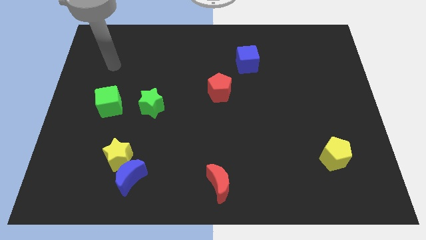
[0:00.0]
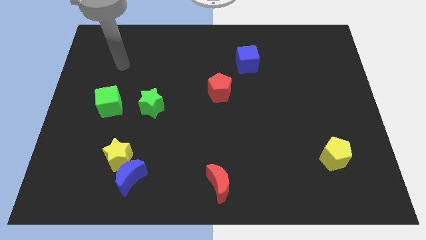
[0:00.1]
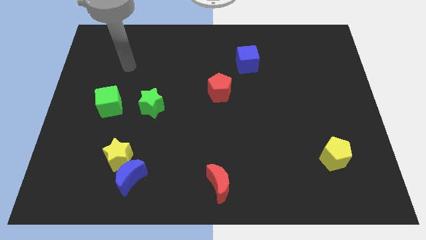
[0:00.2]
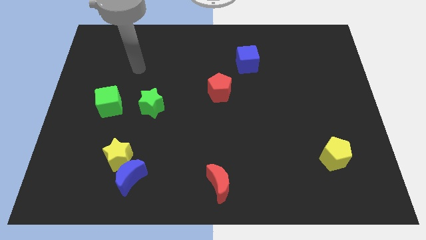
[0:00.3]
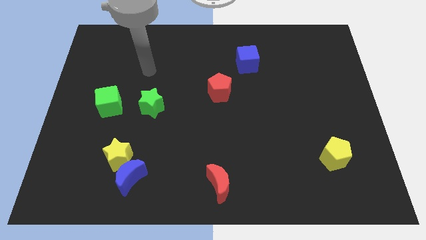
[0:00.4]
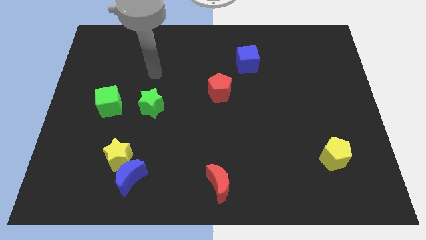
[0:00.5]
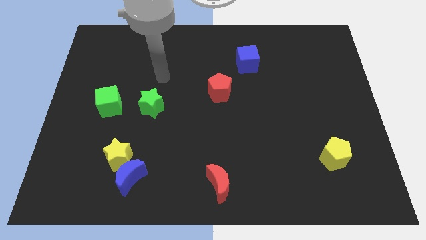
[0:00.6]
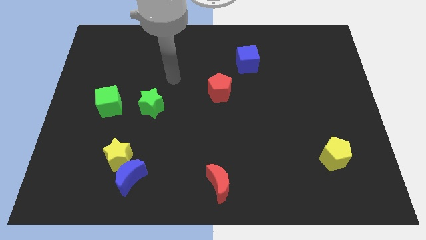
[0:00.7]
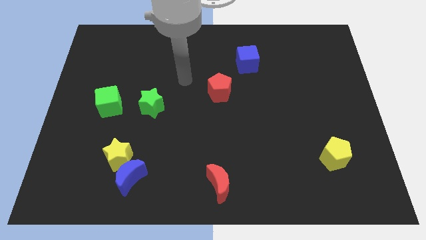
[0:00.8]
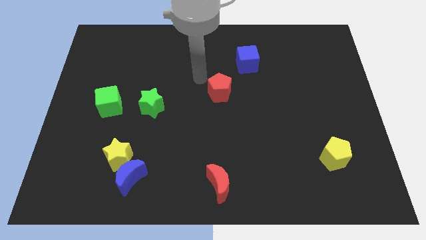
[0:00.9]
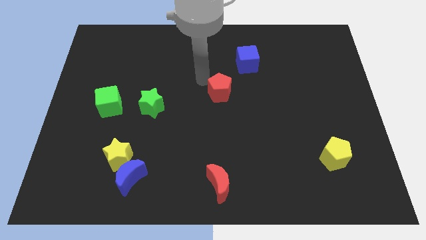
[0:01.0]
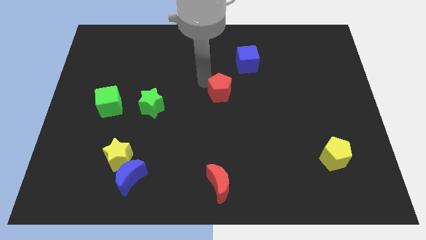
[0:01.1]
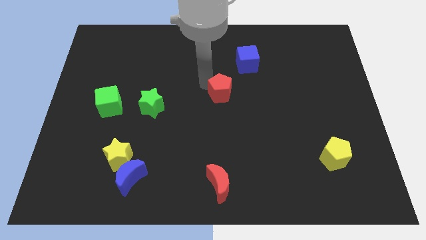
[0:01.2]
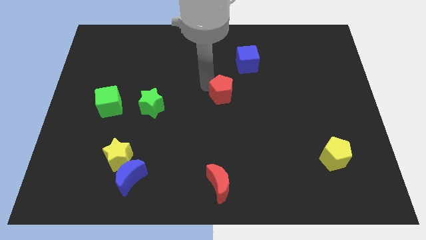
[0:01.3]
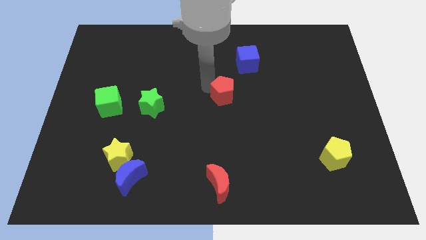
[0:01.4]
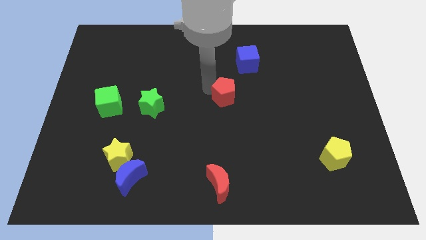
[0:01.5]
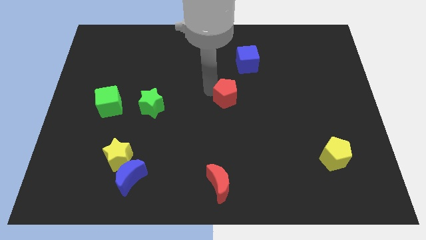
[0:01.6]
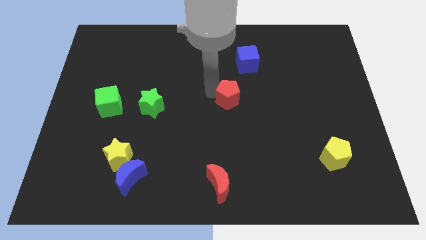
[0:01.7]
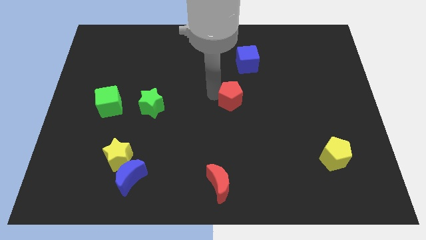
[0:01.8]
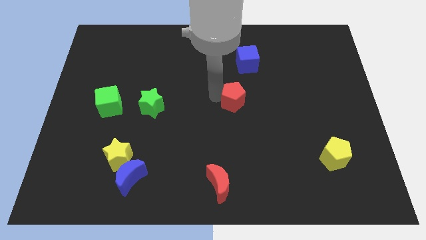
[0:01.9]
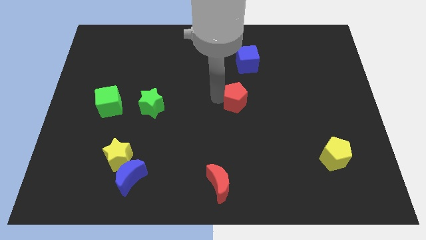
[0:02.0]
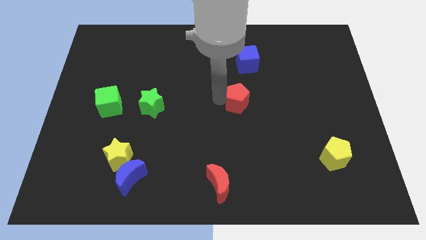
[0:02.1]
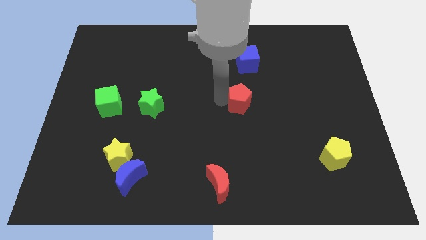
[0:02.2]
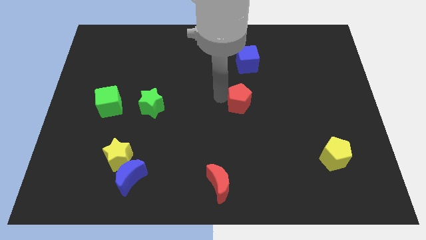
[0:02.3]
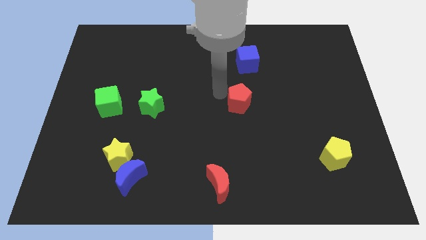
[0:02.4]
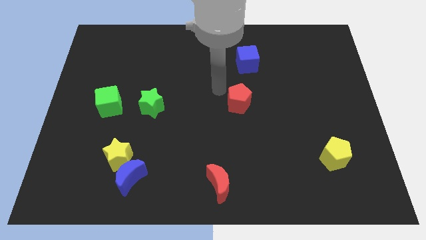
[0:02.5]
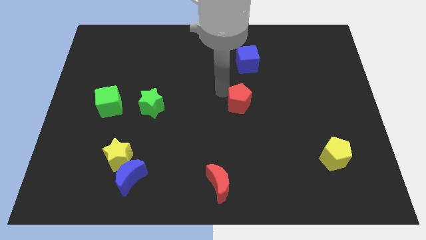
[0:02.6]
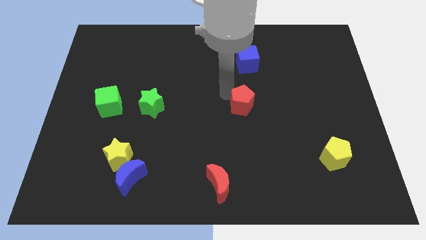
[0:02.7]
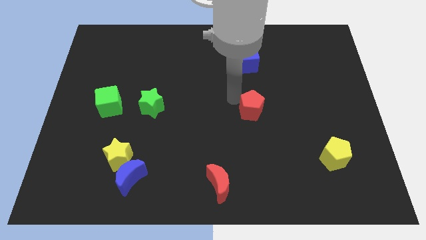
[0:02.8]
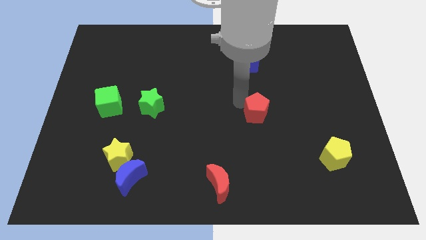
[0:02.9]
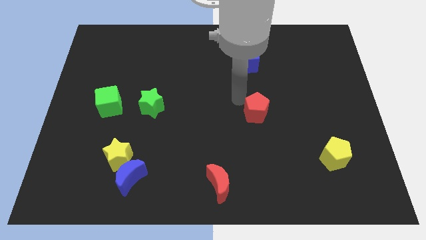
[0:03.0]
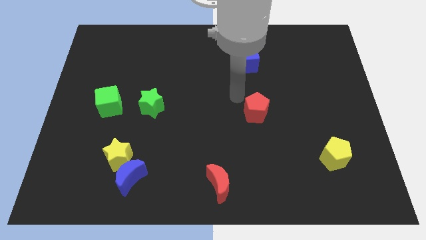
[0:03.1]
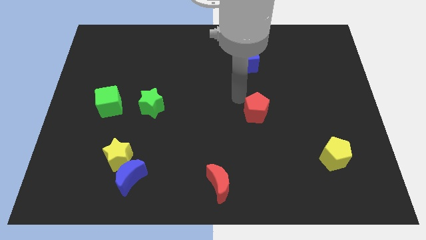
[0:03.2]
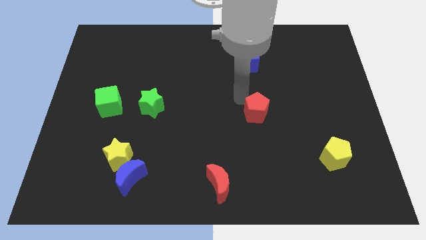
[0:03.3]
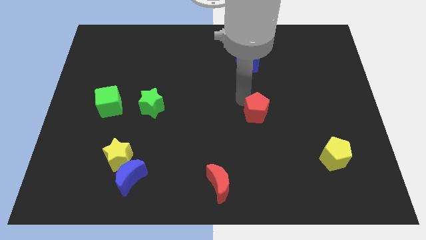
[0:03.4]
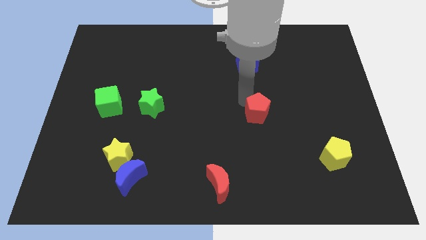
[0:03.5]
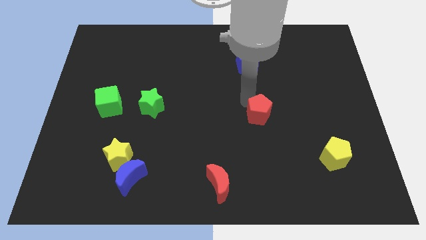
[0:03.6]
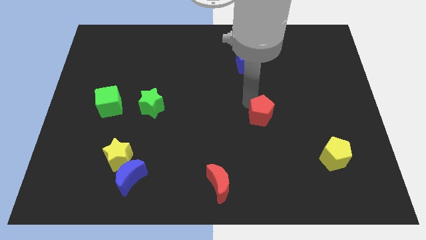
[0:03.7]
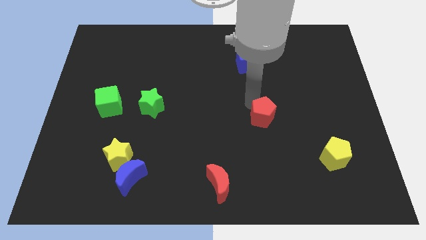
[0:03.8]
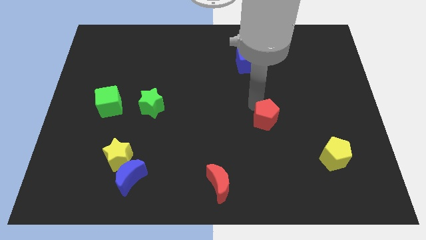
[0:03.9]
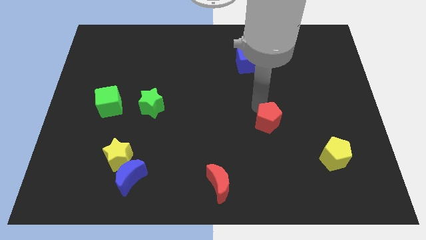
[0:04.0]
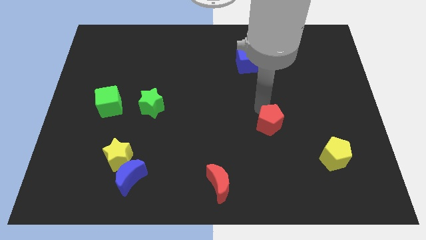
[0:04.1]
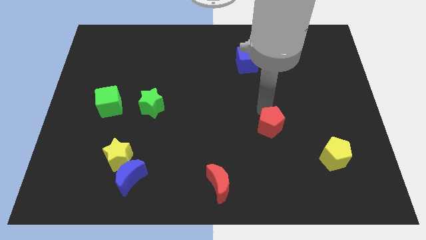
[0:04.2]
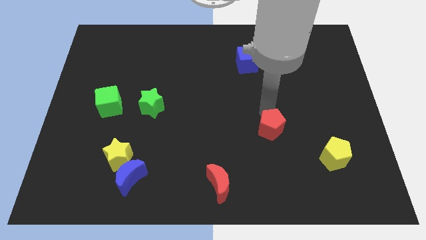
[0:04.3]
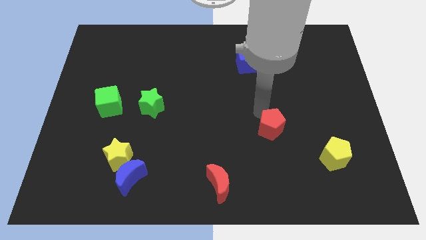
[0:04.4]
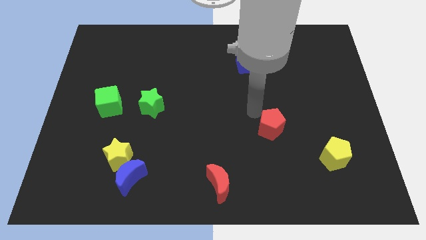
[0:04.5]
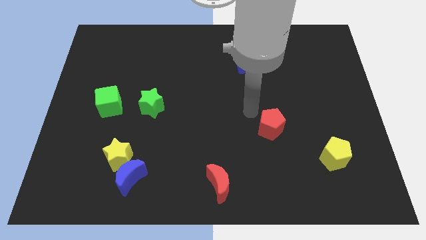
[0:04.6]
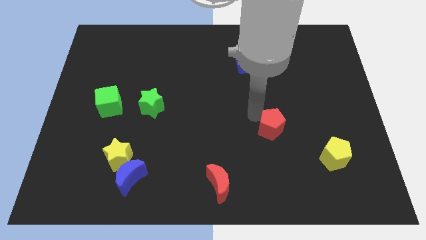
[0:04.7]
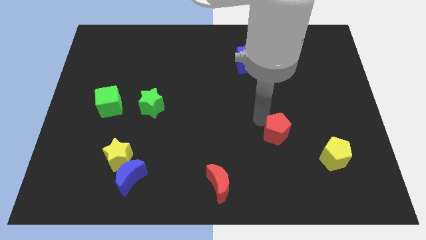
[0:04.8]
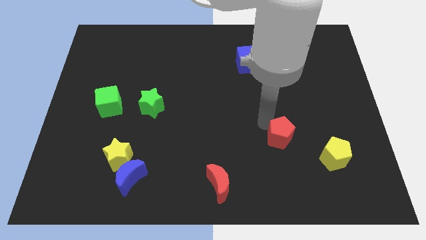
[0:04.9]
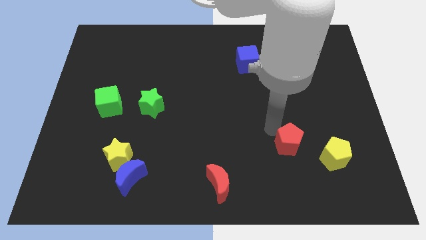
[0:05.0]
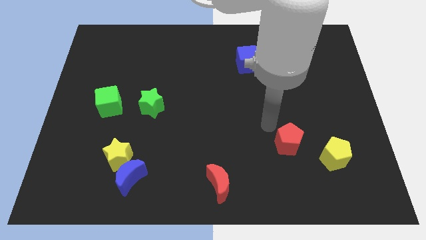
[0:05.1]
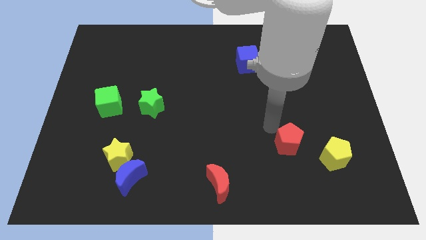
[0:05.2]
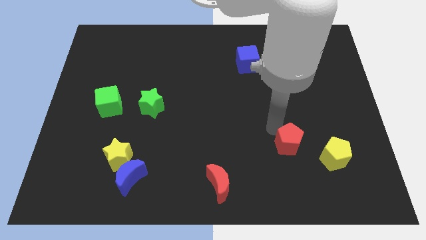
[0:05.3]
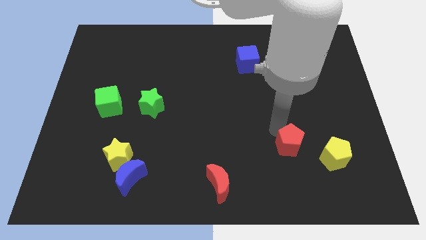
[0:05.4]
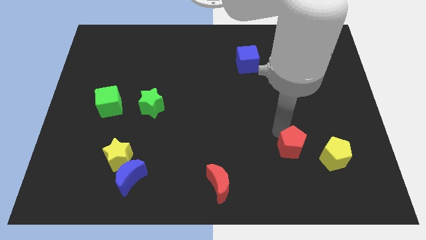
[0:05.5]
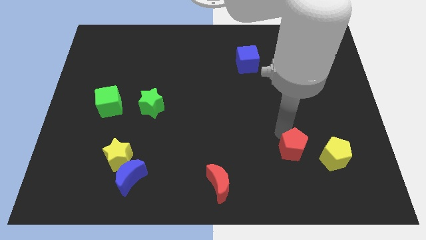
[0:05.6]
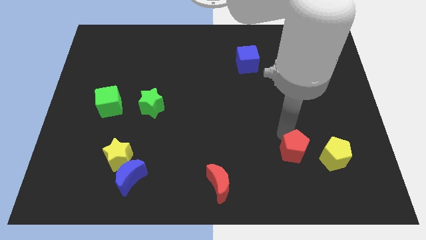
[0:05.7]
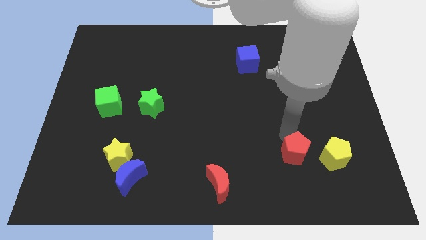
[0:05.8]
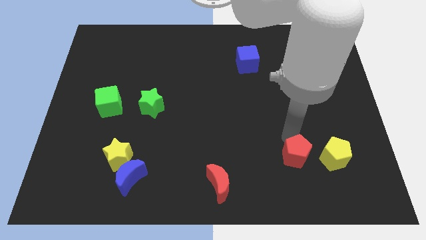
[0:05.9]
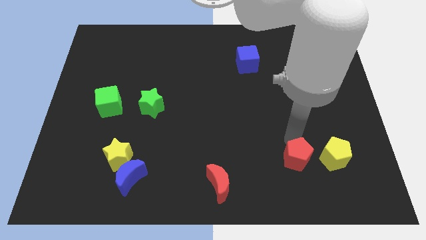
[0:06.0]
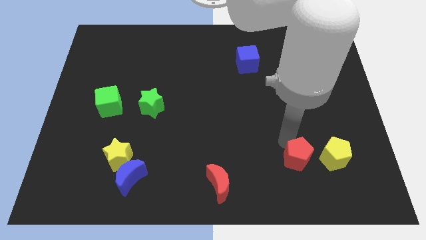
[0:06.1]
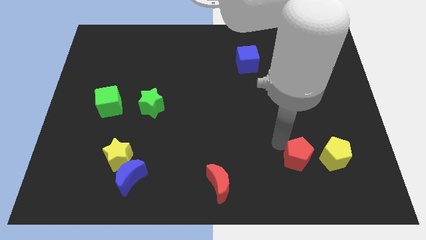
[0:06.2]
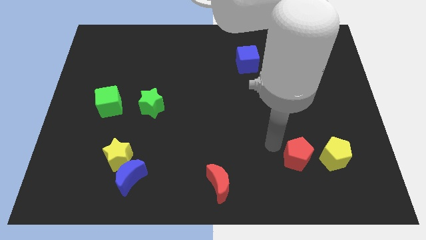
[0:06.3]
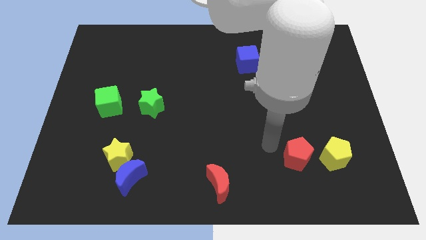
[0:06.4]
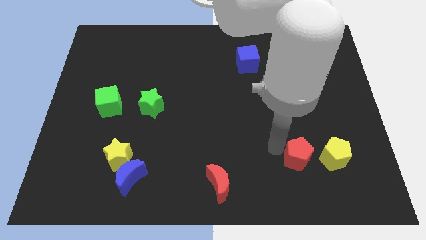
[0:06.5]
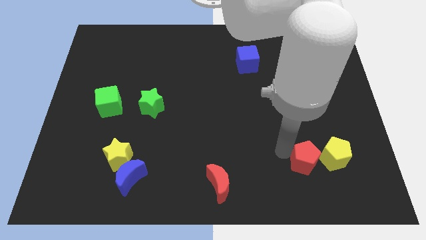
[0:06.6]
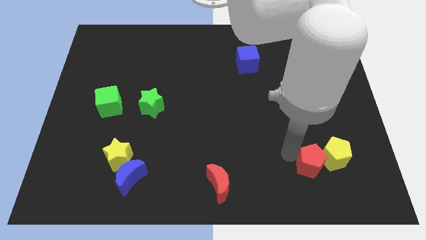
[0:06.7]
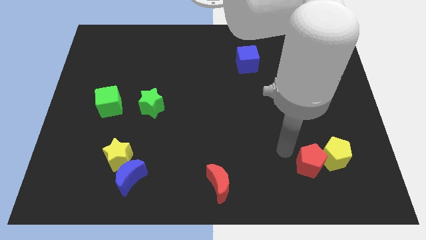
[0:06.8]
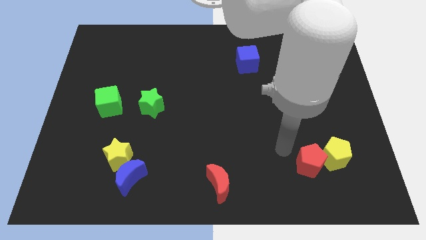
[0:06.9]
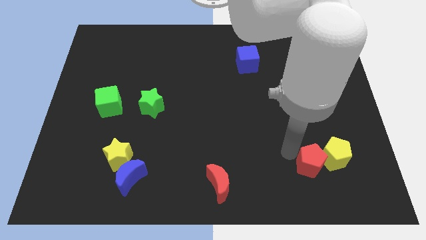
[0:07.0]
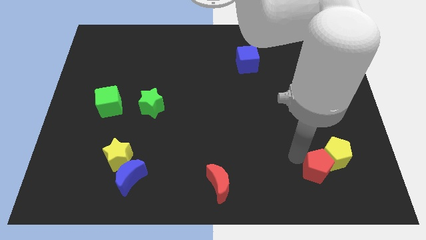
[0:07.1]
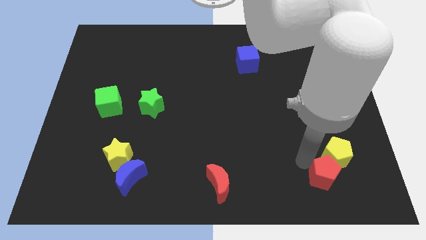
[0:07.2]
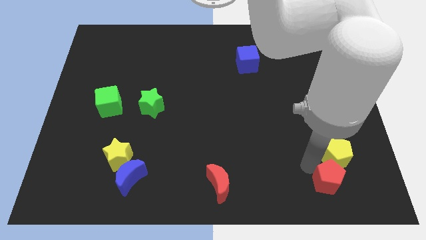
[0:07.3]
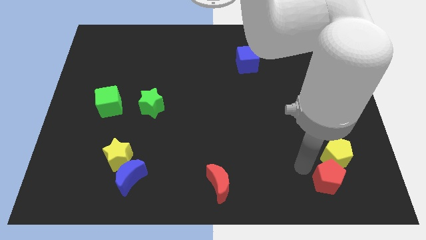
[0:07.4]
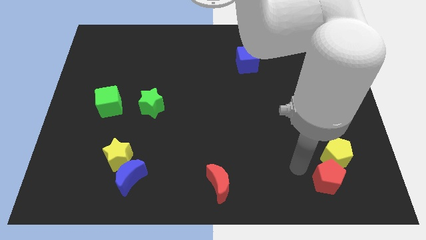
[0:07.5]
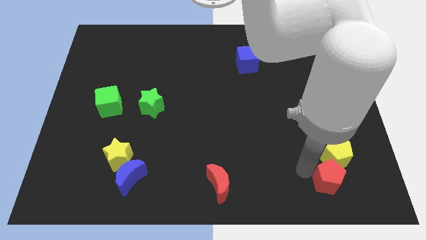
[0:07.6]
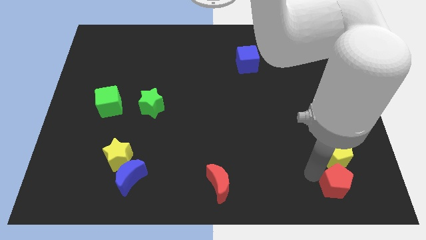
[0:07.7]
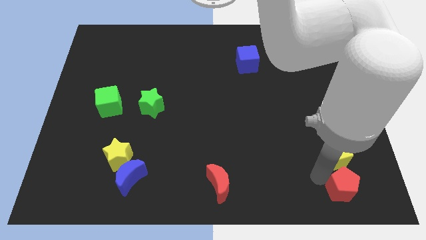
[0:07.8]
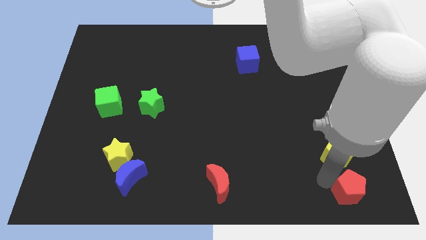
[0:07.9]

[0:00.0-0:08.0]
push the red pentagon to the lower right corner
